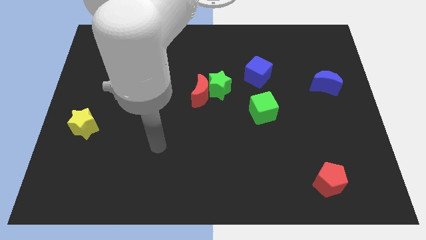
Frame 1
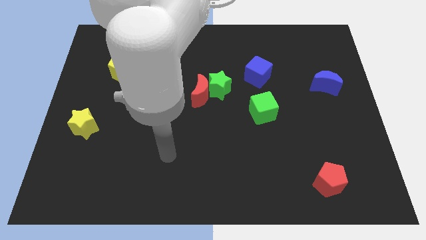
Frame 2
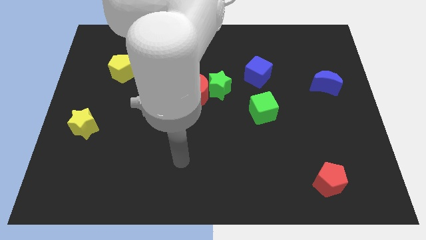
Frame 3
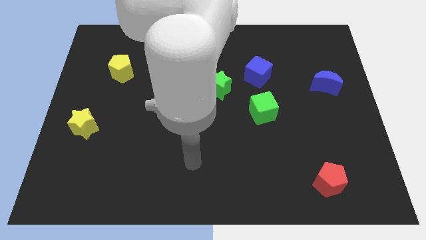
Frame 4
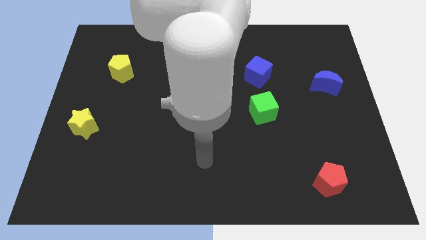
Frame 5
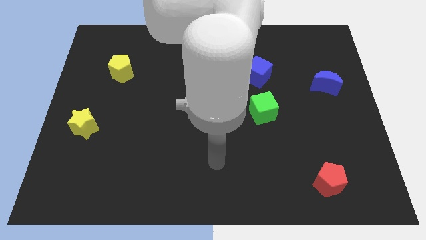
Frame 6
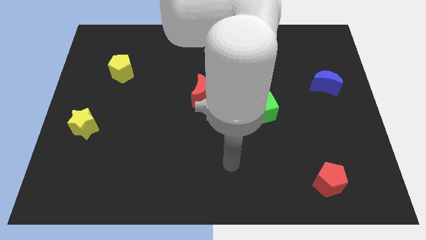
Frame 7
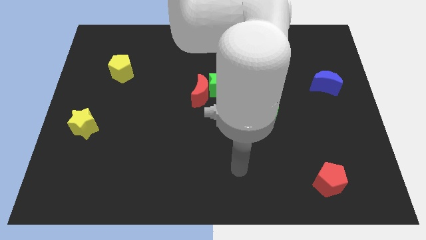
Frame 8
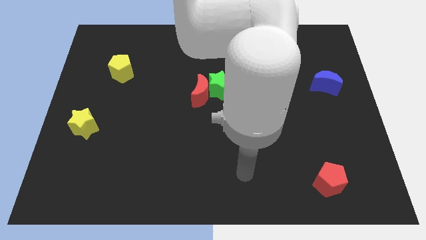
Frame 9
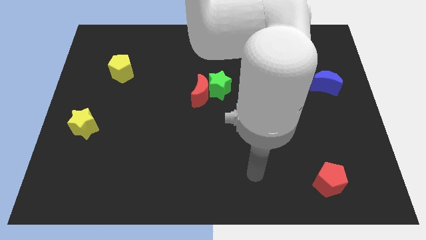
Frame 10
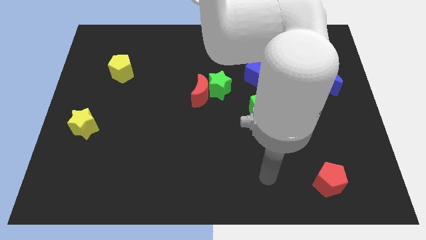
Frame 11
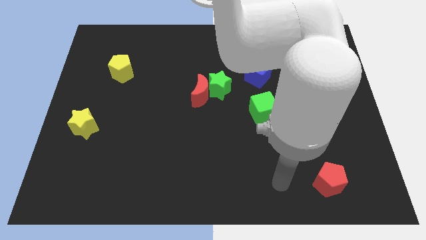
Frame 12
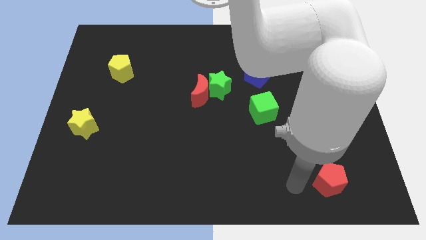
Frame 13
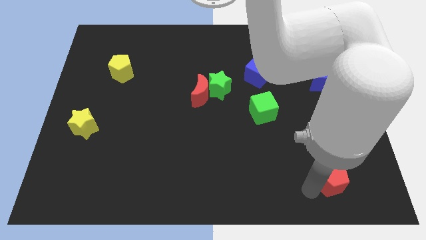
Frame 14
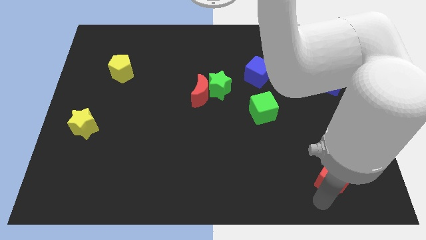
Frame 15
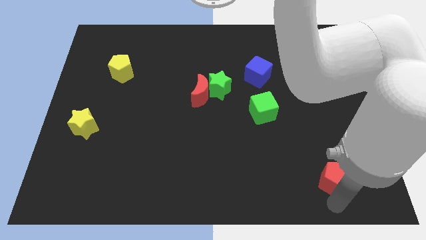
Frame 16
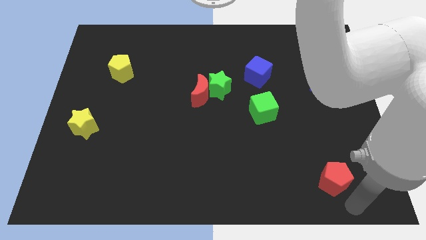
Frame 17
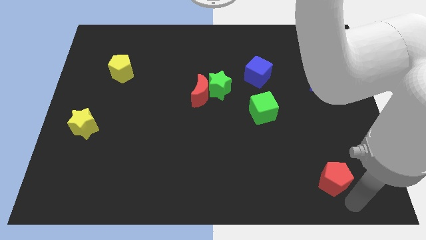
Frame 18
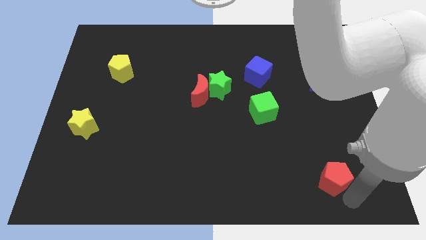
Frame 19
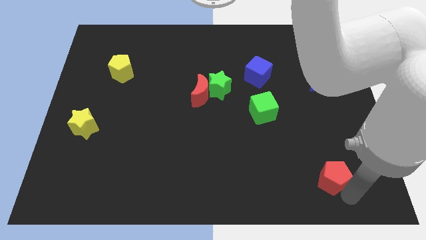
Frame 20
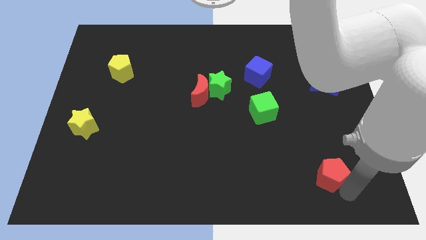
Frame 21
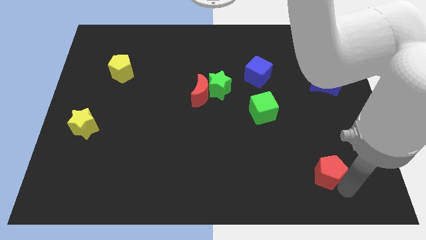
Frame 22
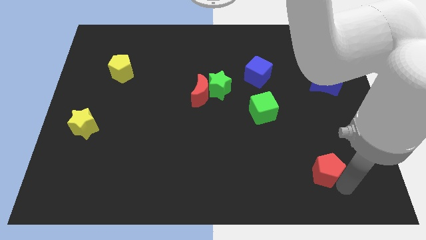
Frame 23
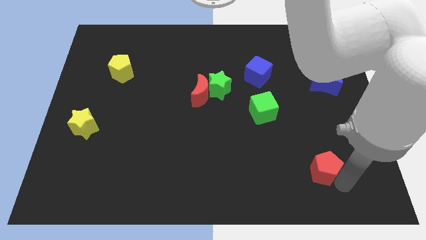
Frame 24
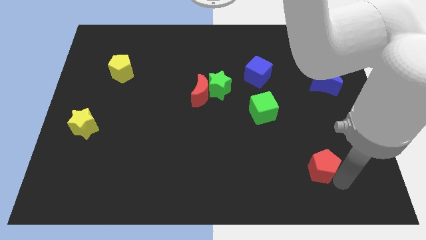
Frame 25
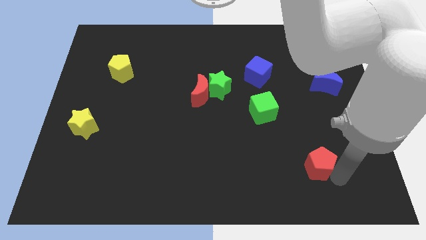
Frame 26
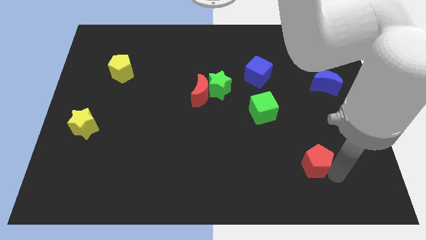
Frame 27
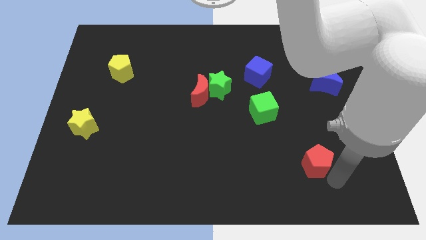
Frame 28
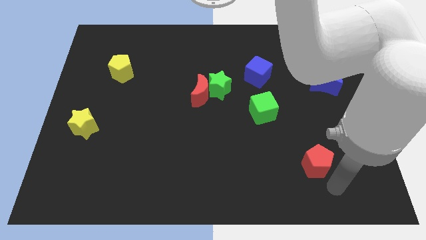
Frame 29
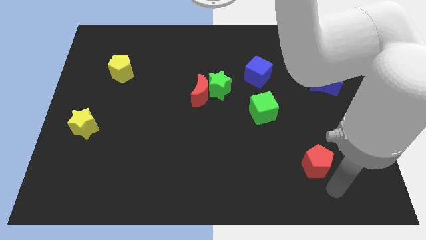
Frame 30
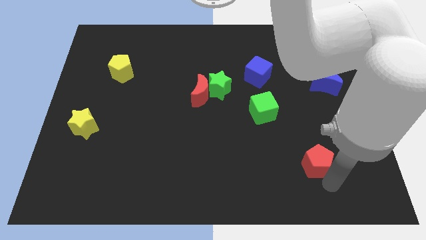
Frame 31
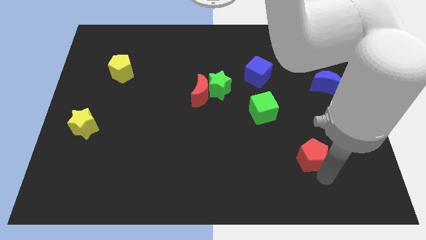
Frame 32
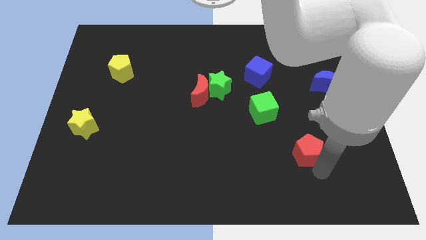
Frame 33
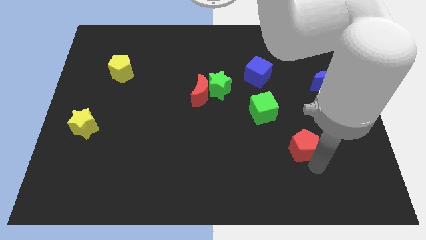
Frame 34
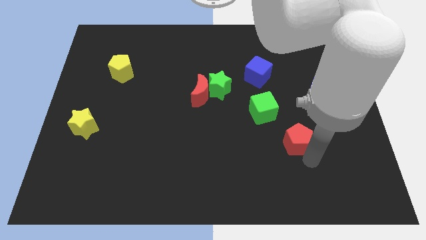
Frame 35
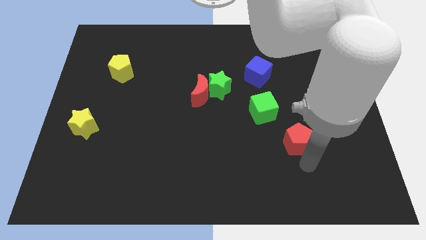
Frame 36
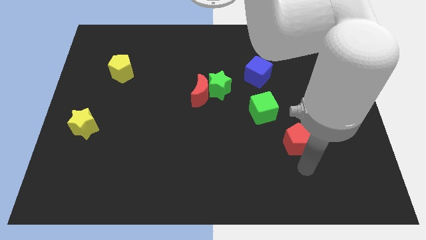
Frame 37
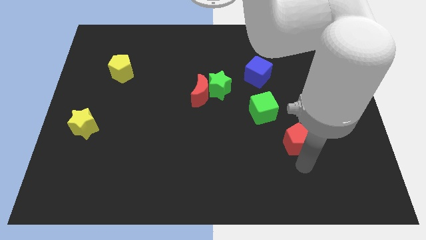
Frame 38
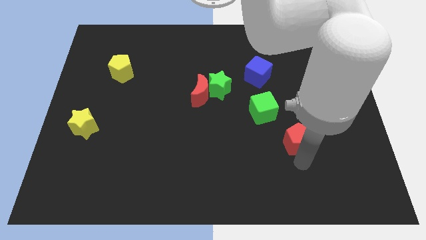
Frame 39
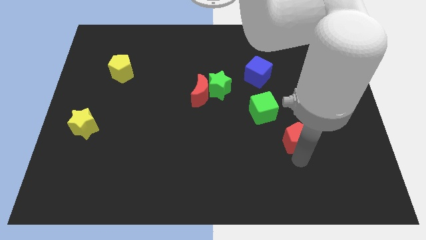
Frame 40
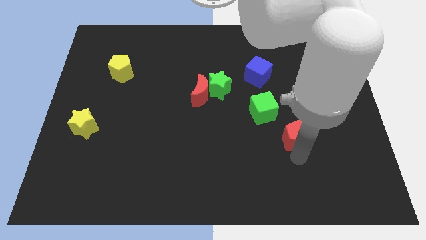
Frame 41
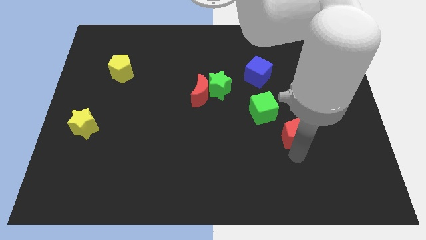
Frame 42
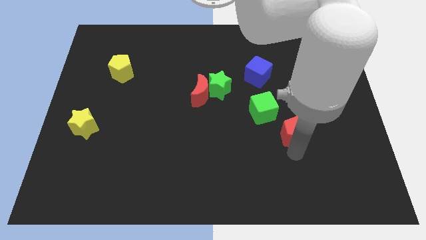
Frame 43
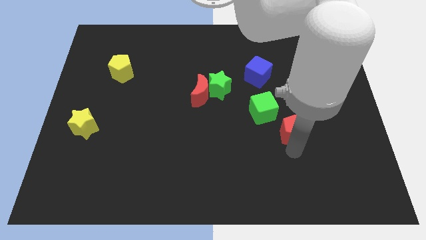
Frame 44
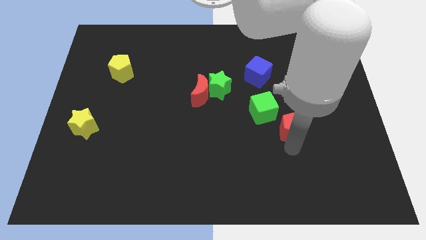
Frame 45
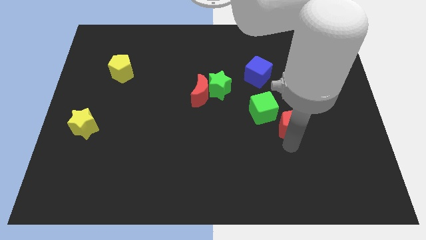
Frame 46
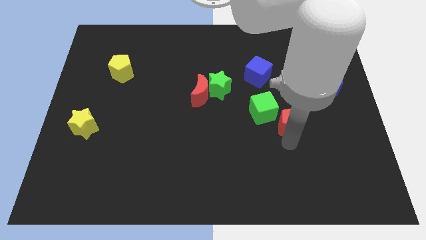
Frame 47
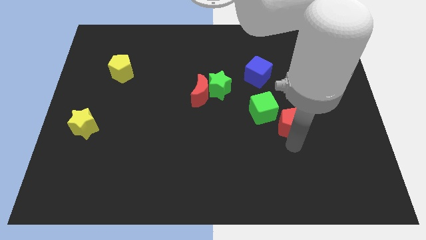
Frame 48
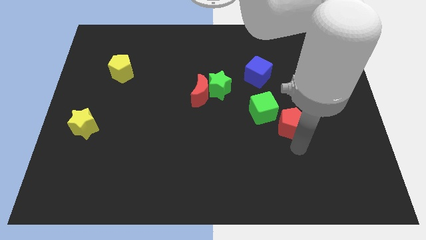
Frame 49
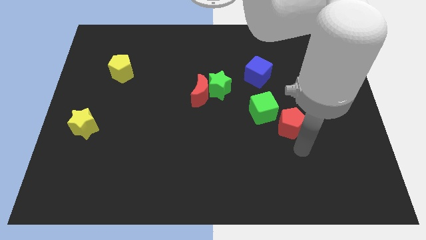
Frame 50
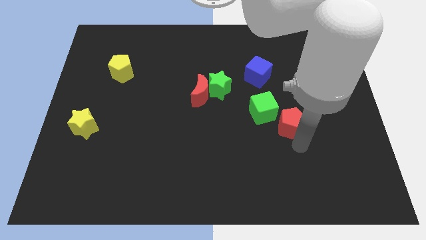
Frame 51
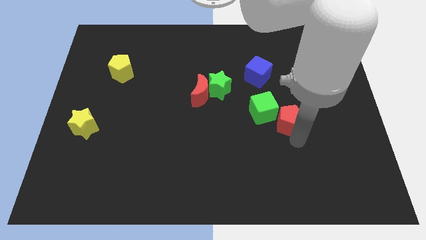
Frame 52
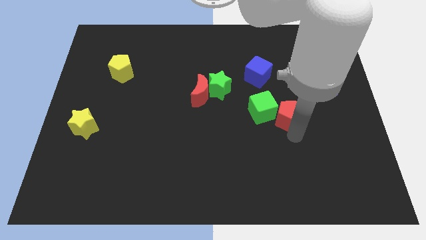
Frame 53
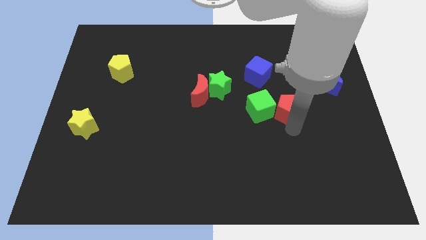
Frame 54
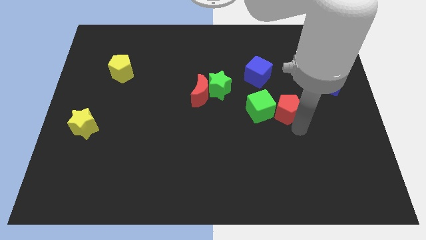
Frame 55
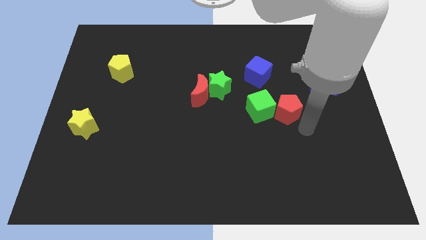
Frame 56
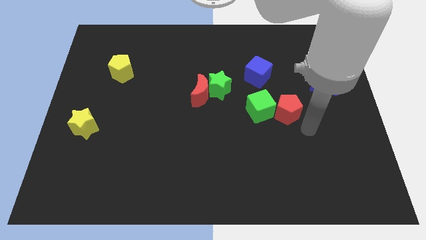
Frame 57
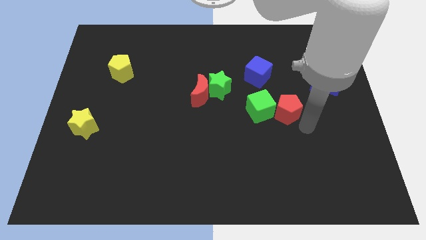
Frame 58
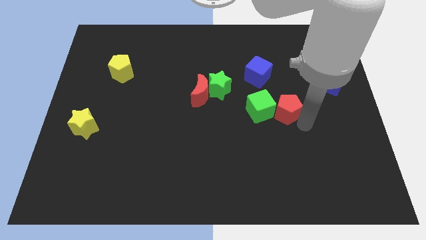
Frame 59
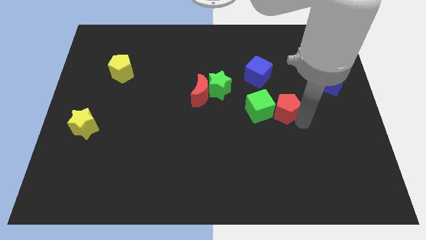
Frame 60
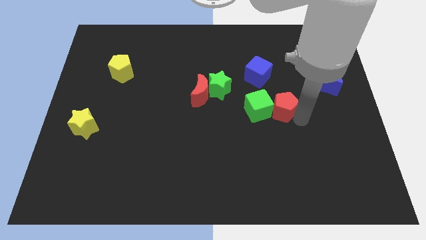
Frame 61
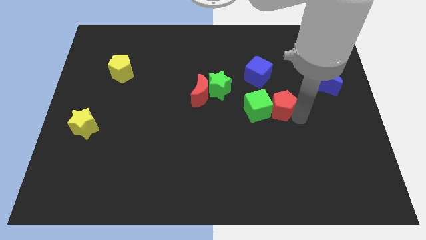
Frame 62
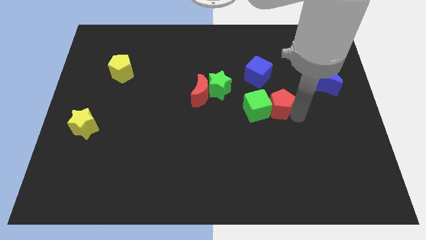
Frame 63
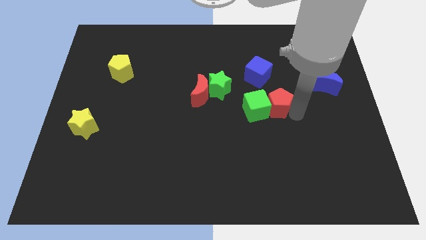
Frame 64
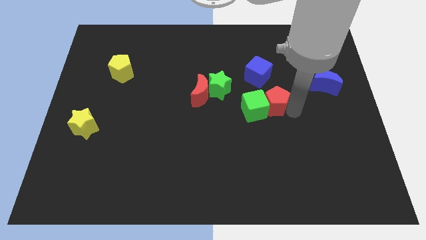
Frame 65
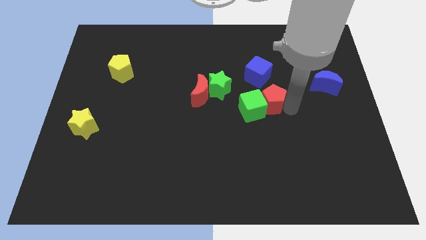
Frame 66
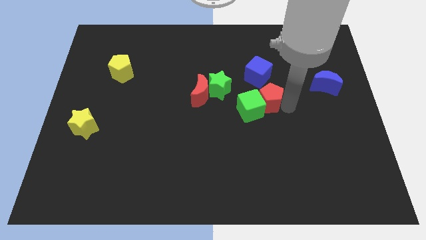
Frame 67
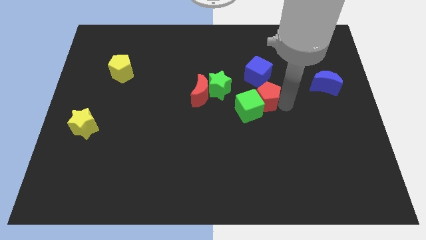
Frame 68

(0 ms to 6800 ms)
move the red pentagon just right of the red moon
